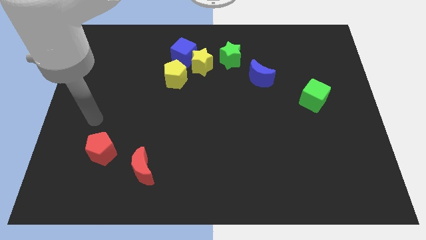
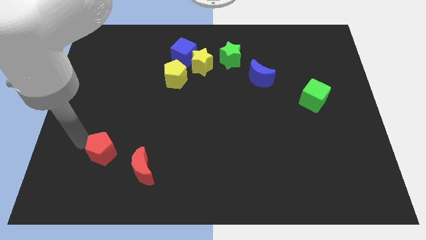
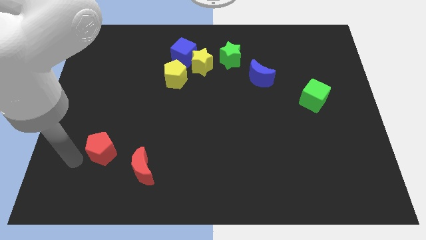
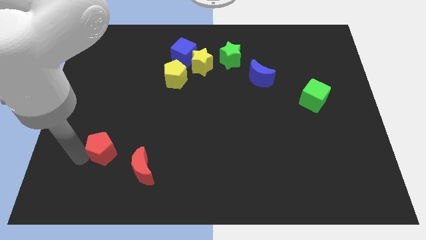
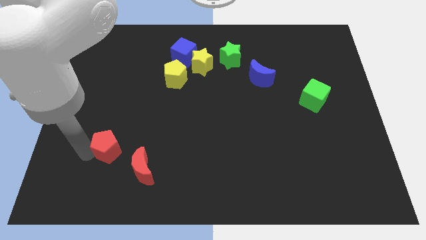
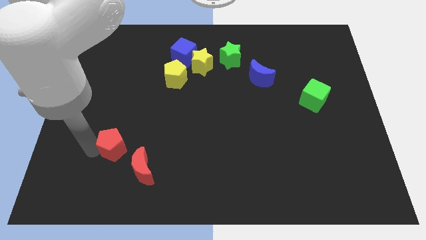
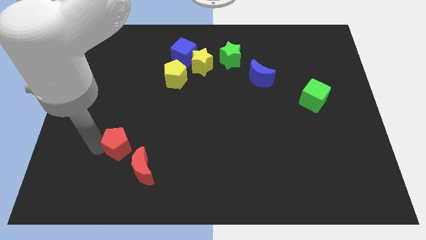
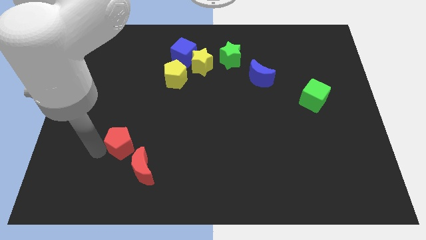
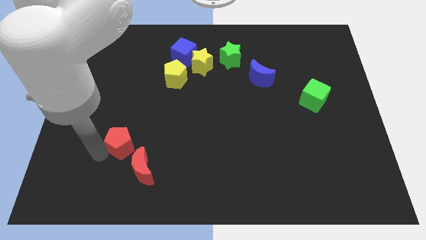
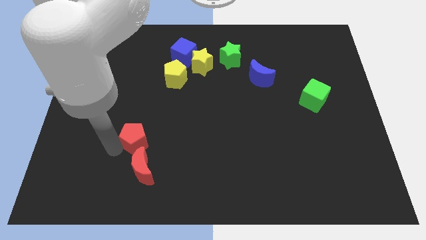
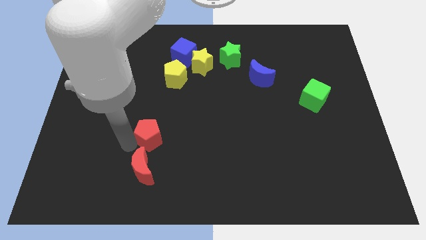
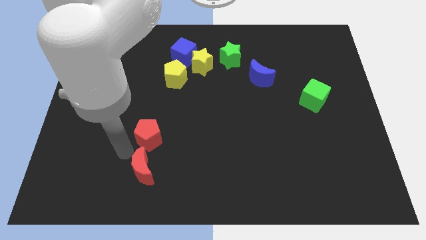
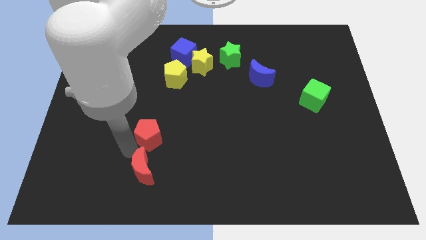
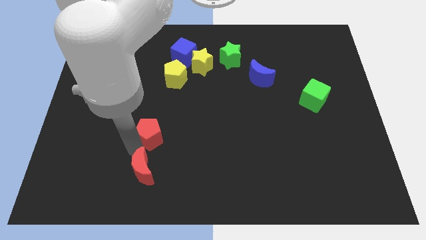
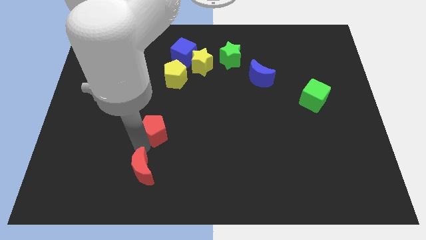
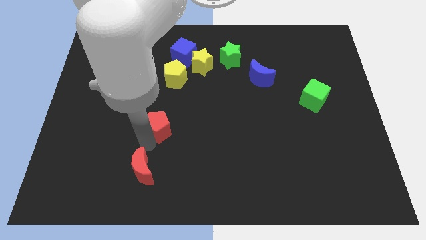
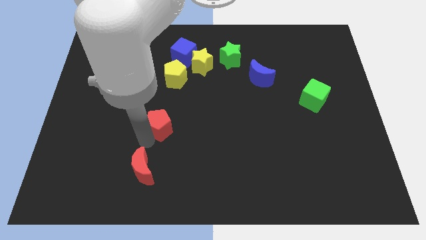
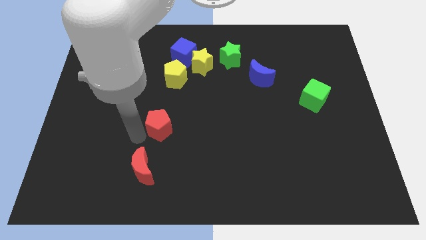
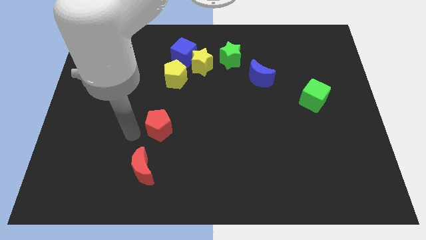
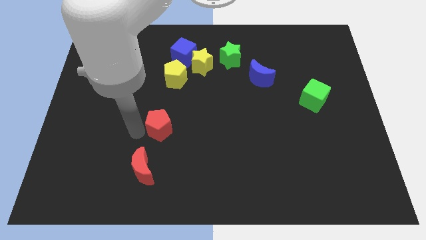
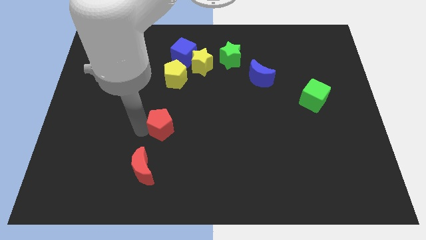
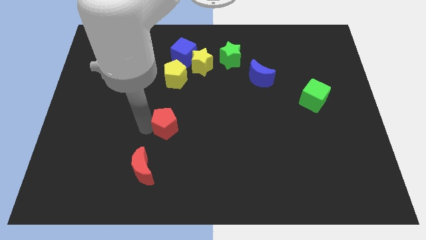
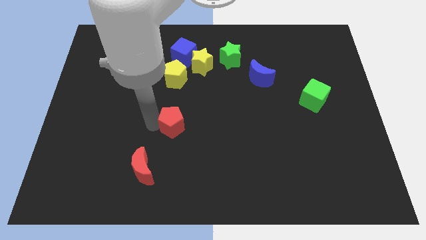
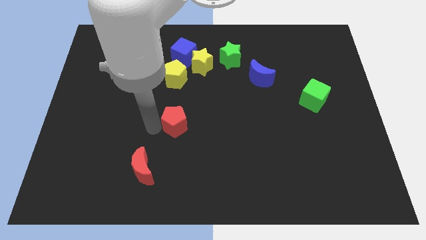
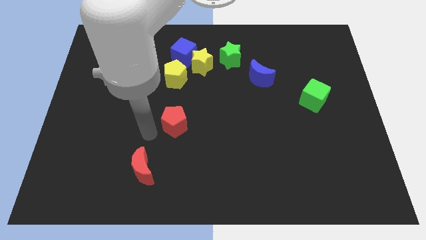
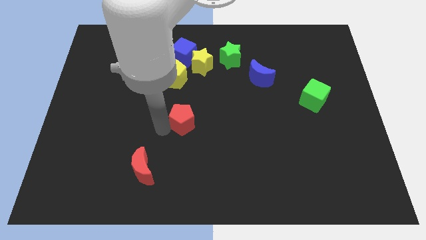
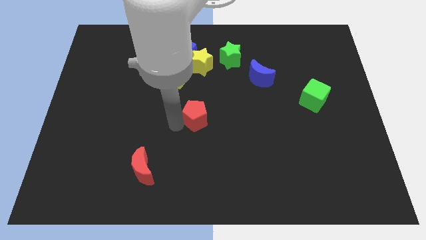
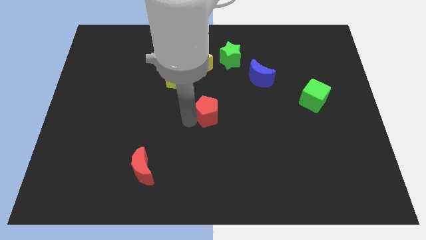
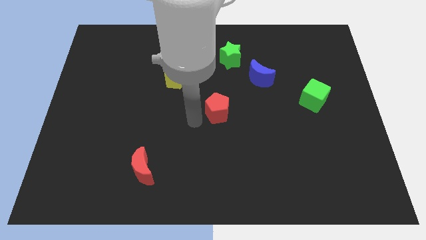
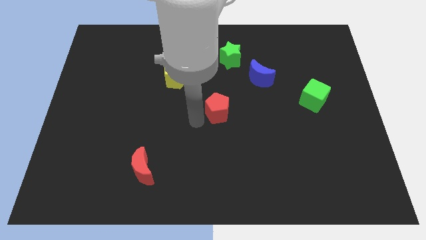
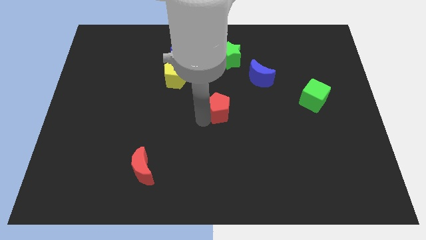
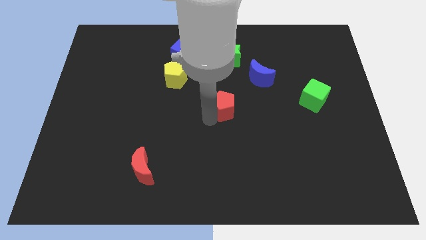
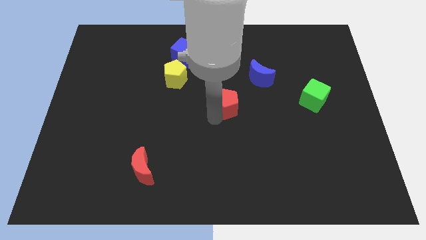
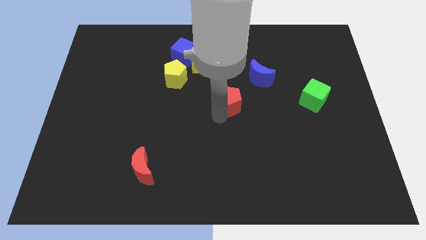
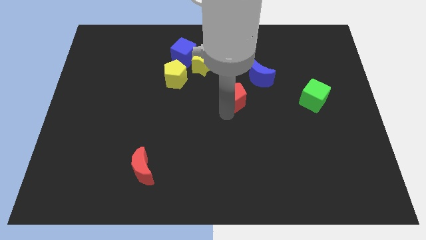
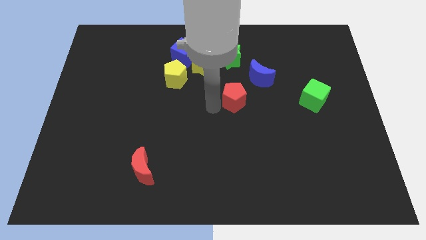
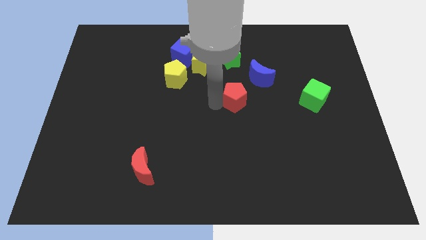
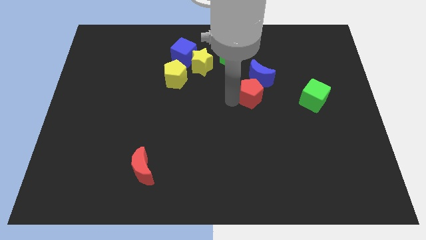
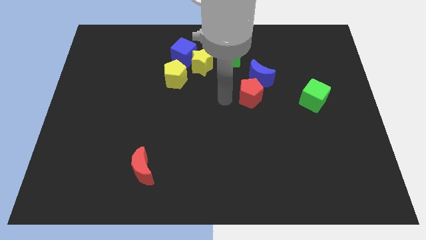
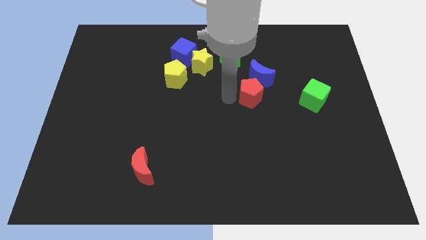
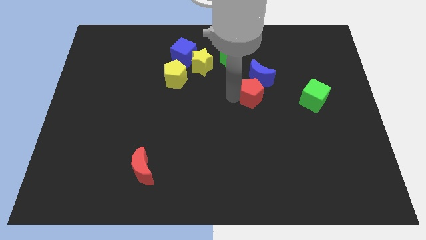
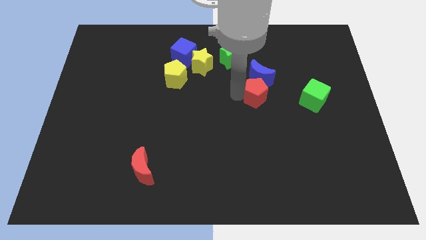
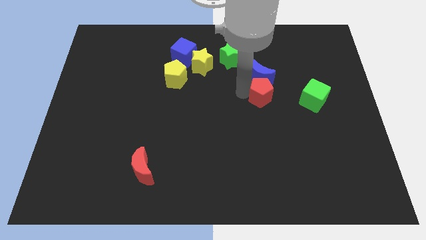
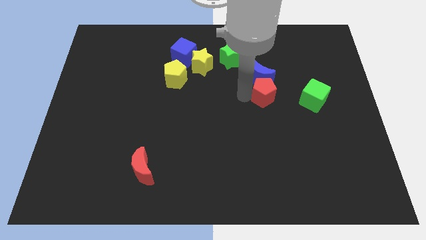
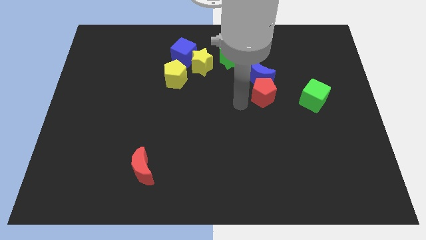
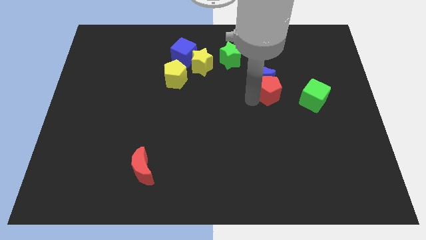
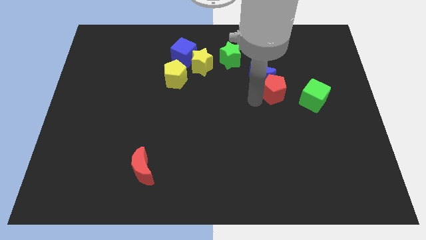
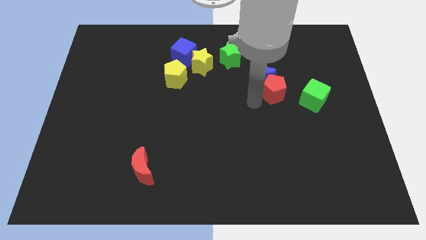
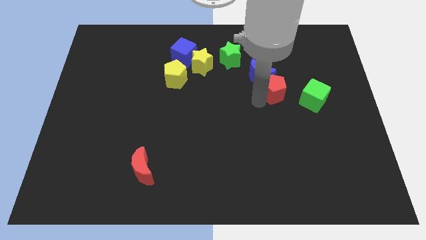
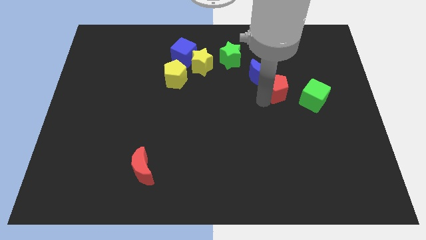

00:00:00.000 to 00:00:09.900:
slide the red pentagon right of the blue moon

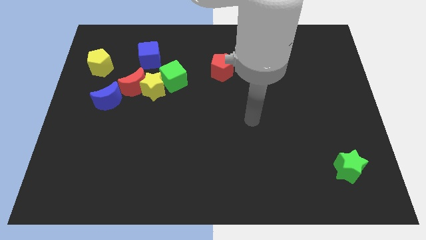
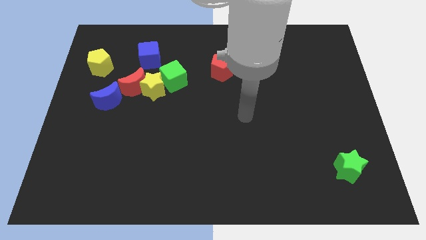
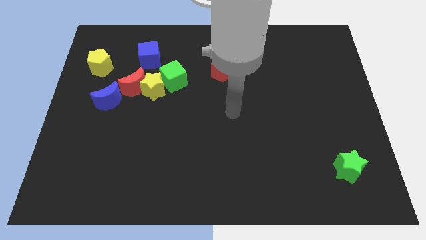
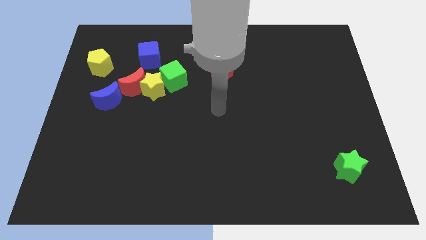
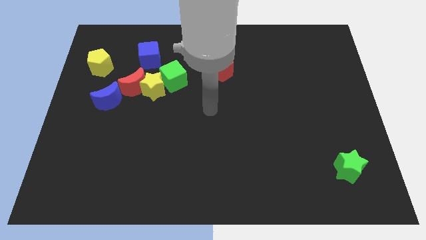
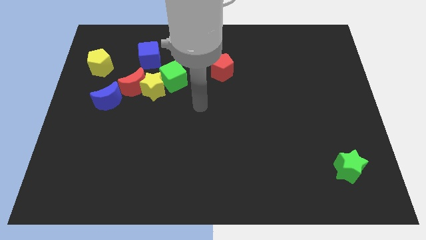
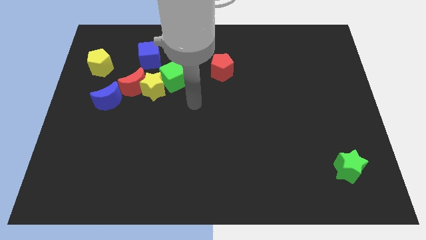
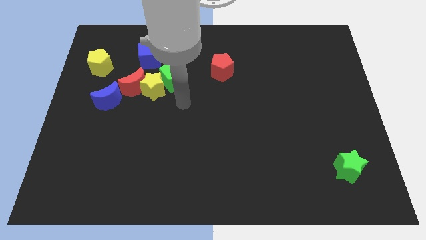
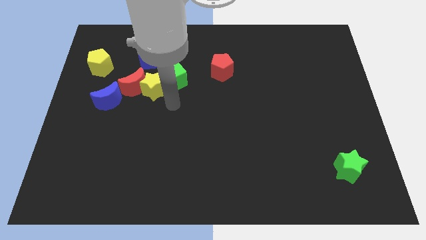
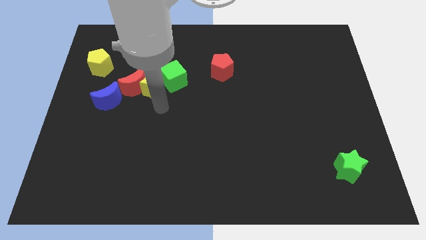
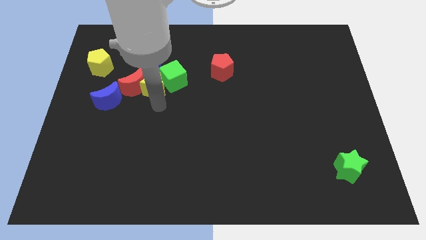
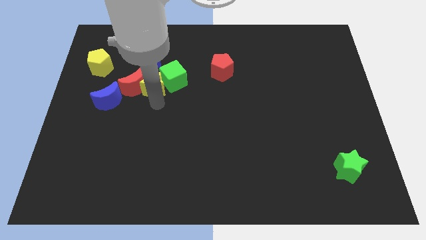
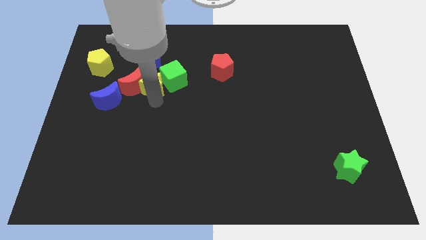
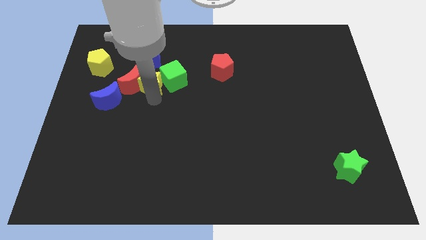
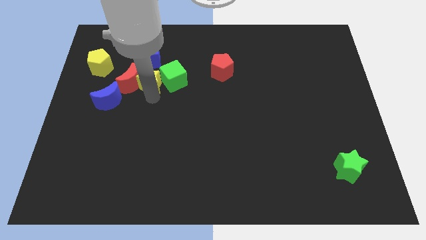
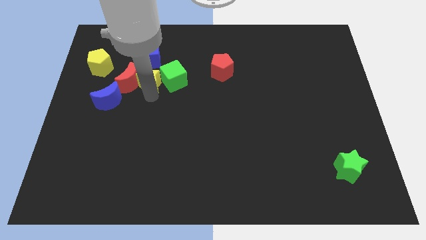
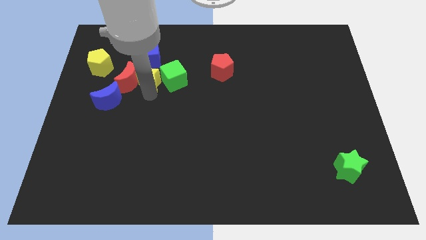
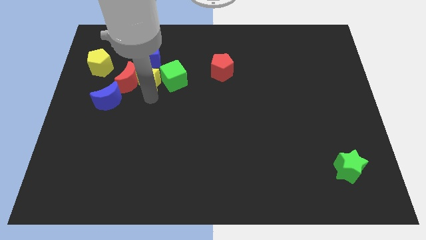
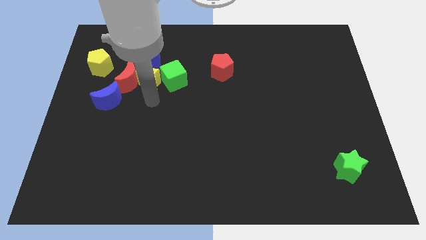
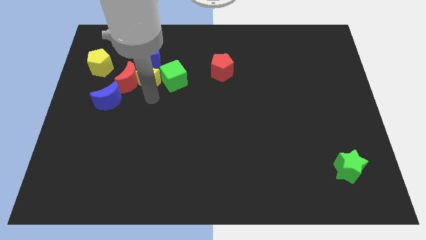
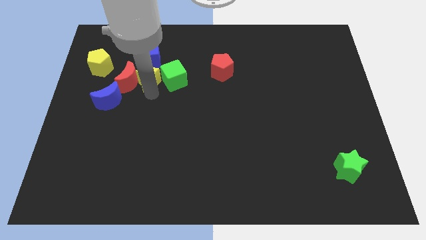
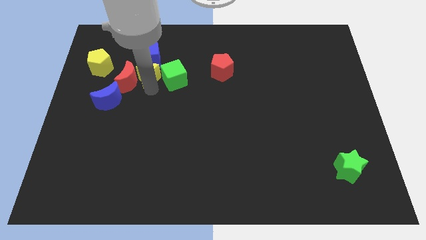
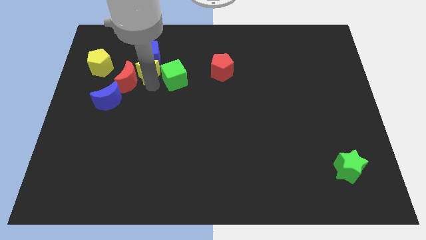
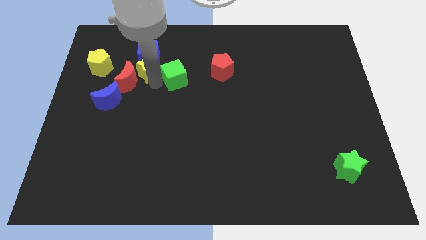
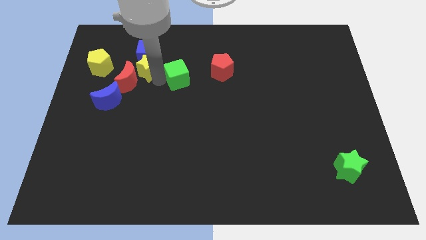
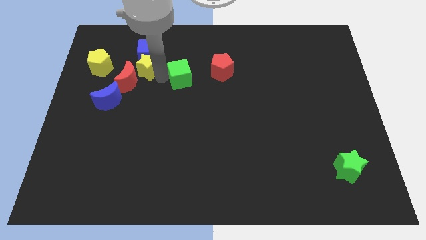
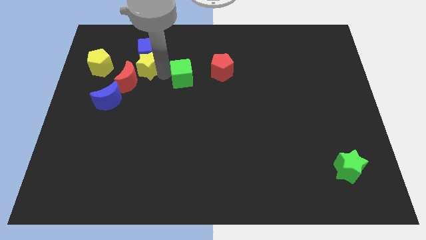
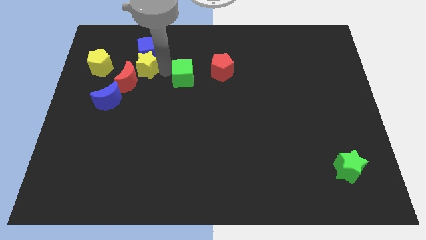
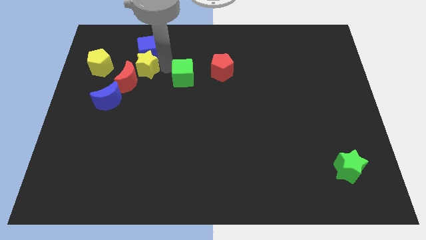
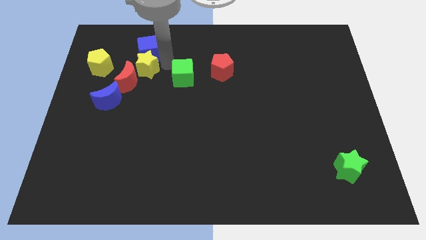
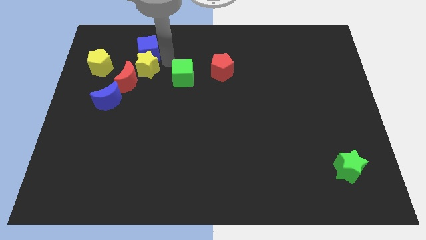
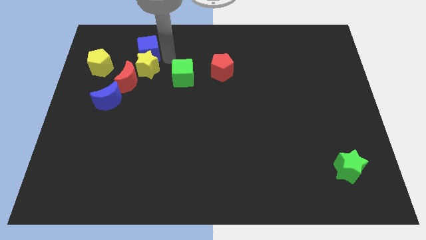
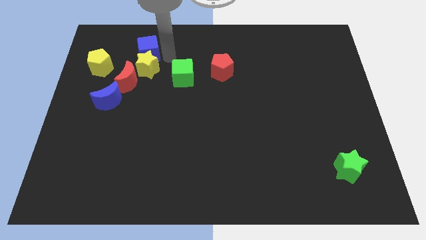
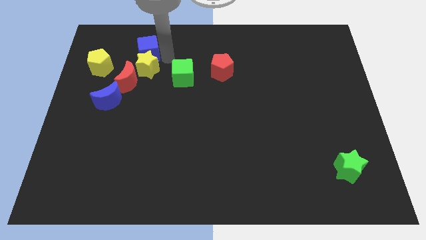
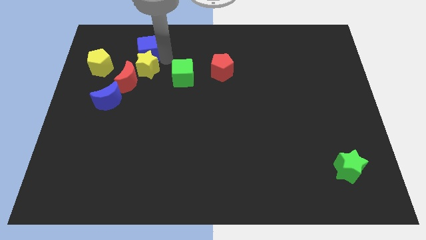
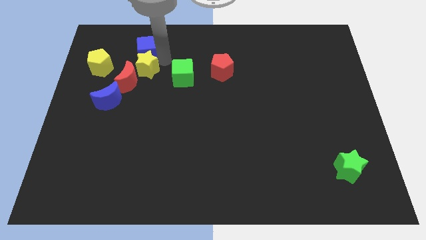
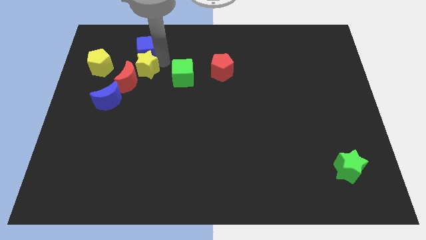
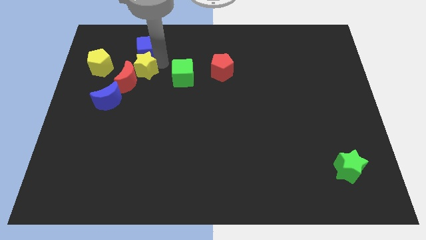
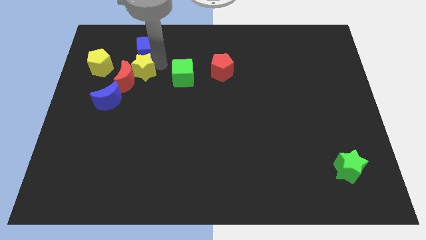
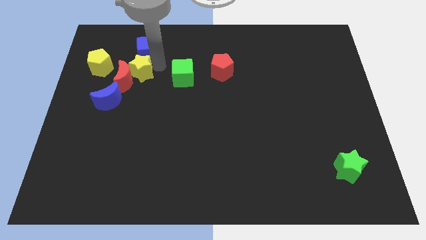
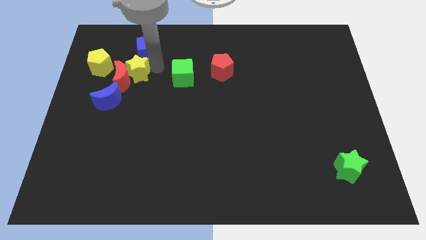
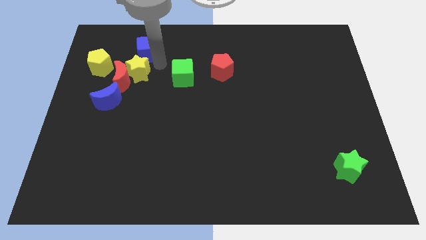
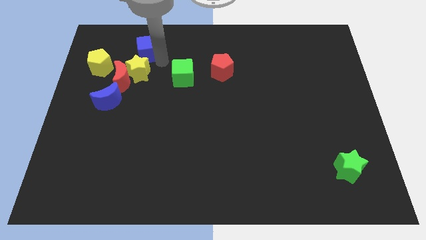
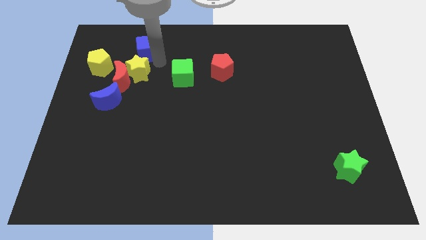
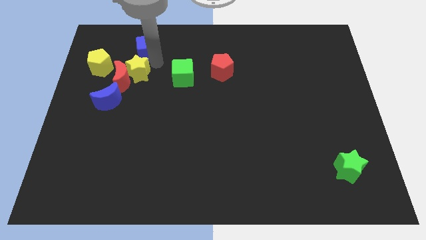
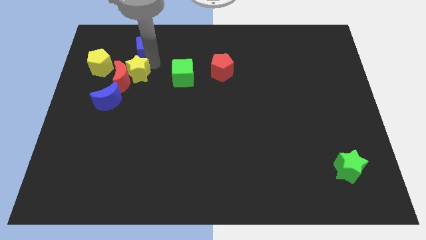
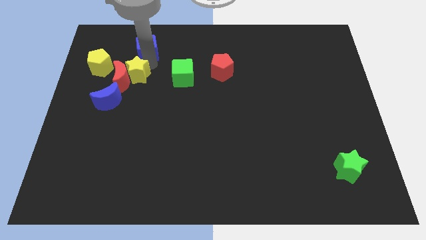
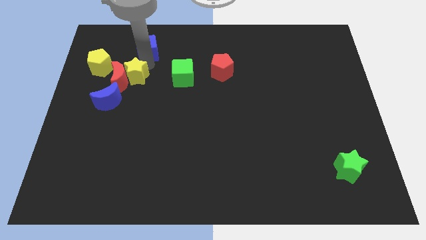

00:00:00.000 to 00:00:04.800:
put the yellow star to the bottom right of the yellow pentagon
